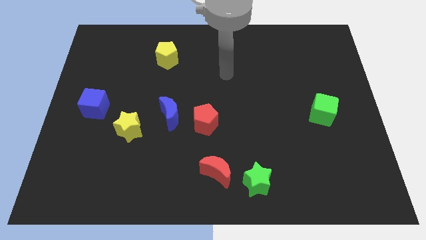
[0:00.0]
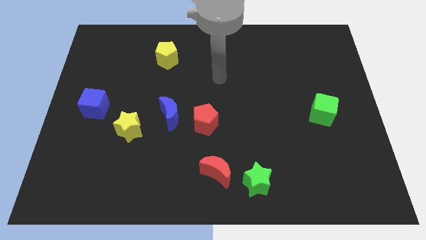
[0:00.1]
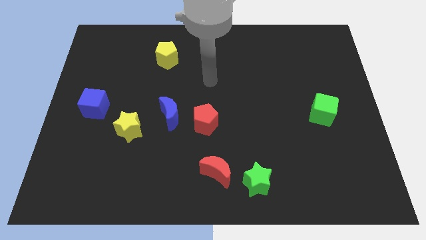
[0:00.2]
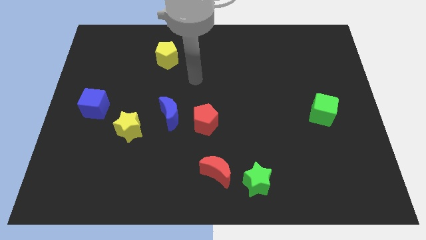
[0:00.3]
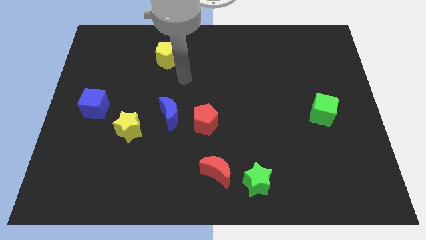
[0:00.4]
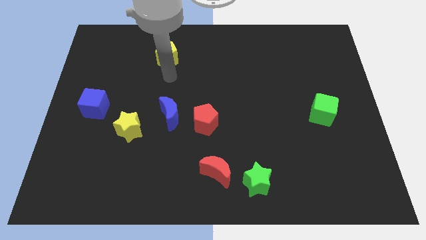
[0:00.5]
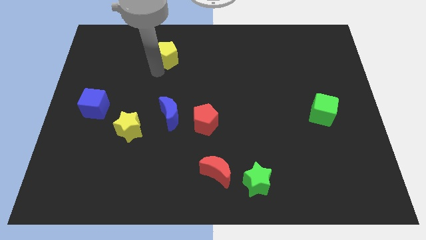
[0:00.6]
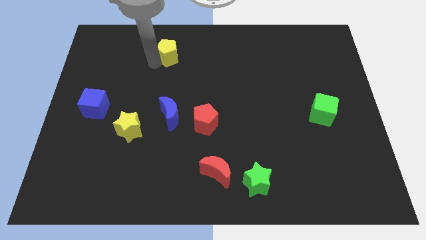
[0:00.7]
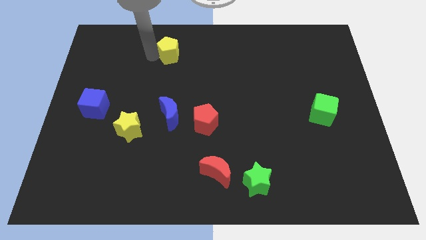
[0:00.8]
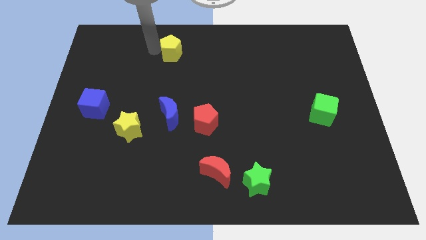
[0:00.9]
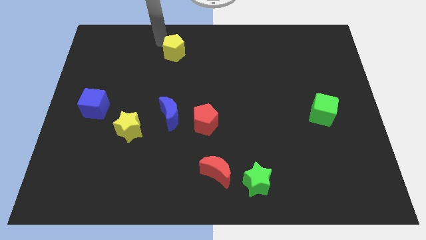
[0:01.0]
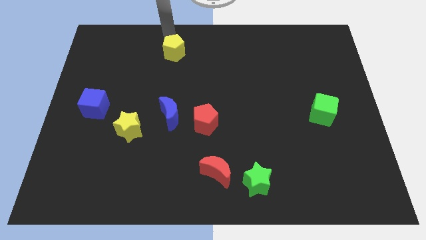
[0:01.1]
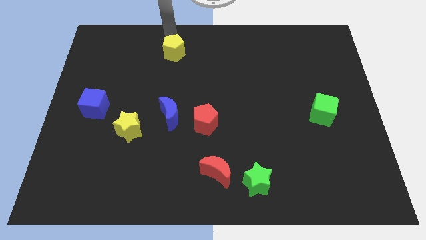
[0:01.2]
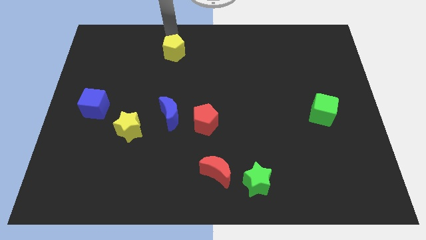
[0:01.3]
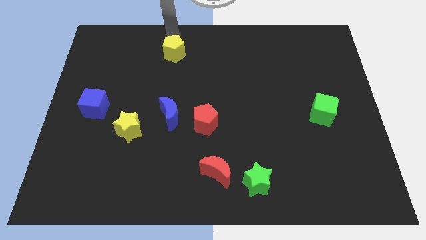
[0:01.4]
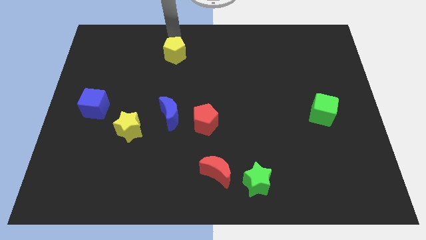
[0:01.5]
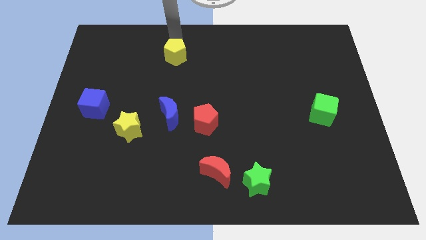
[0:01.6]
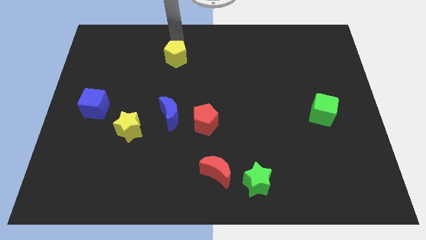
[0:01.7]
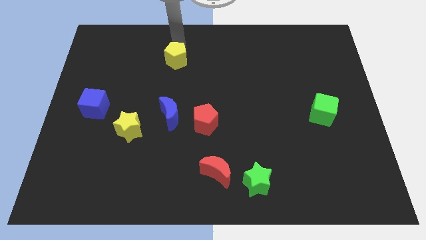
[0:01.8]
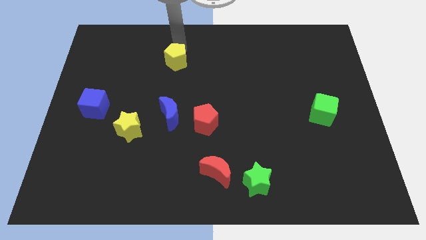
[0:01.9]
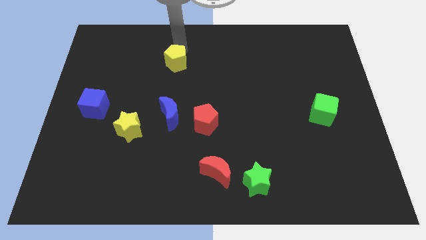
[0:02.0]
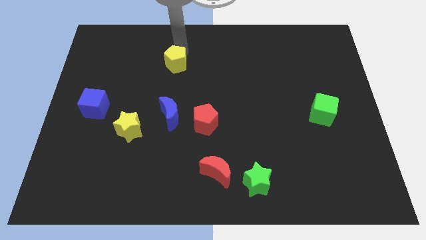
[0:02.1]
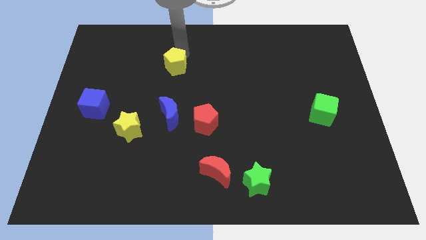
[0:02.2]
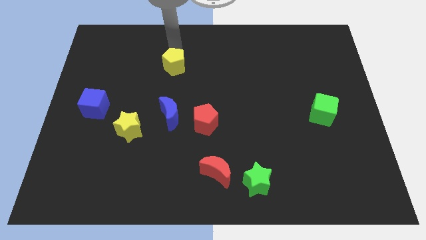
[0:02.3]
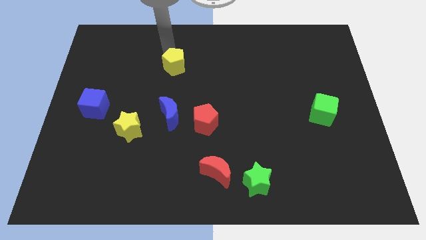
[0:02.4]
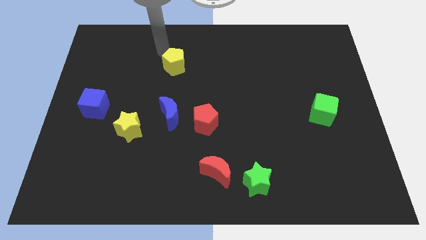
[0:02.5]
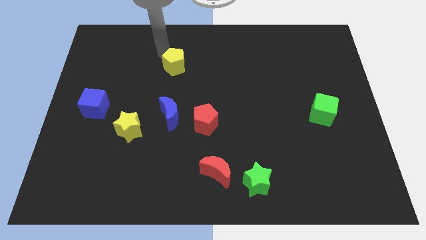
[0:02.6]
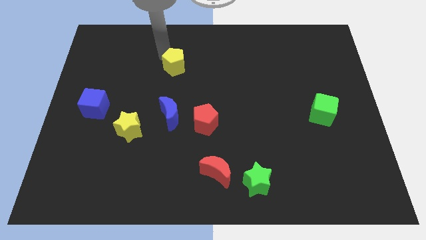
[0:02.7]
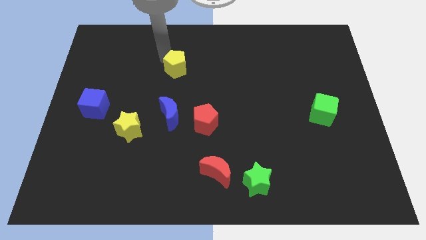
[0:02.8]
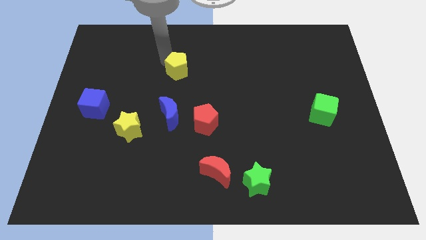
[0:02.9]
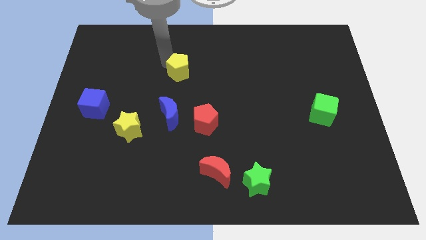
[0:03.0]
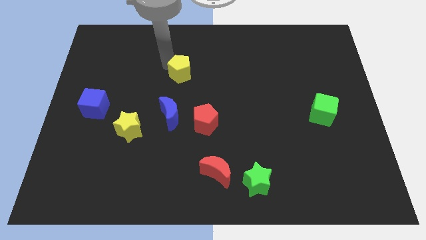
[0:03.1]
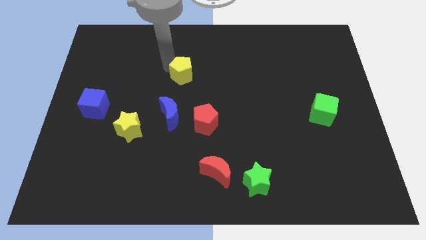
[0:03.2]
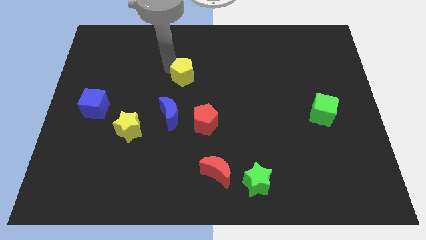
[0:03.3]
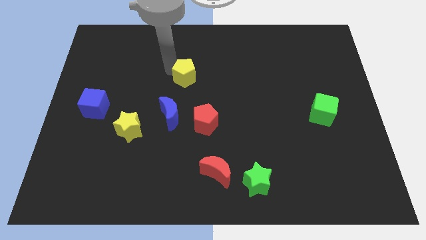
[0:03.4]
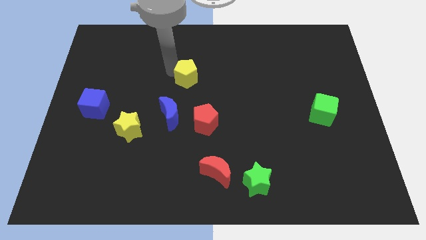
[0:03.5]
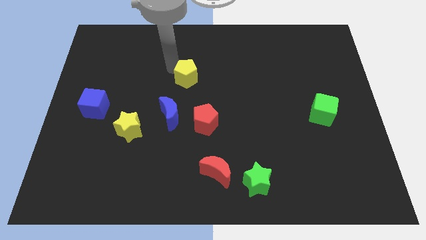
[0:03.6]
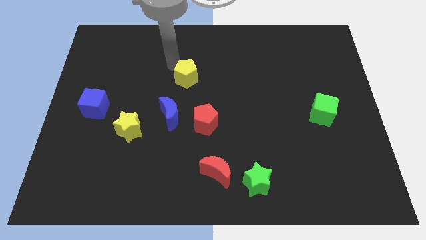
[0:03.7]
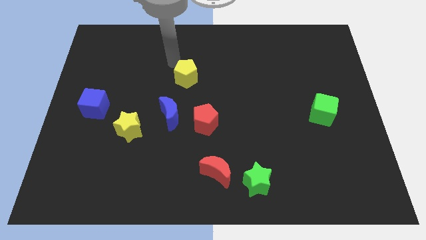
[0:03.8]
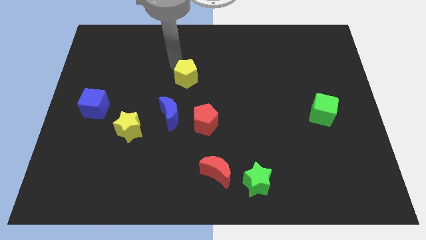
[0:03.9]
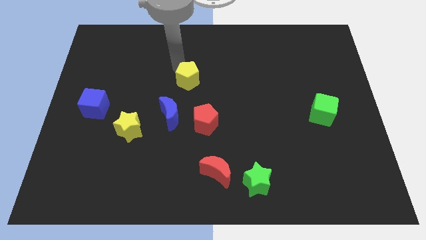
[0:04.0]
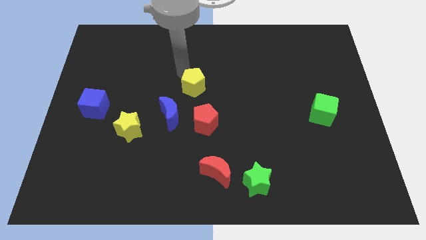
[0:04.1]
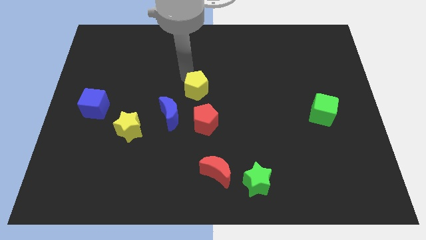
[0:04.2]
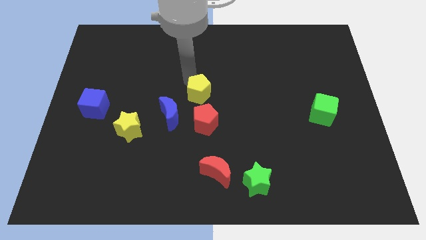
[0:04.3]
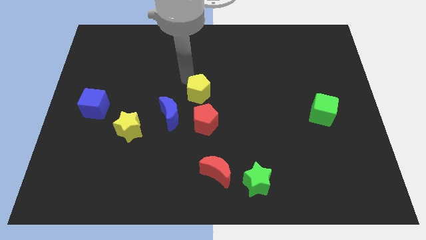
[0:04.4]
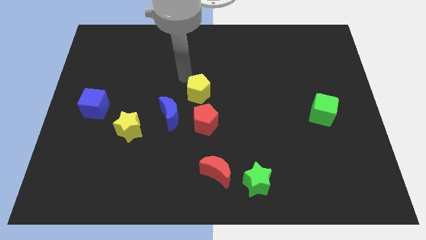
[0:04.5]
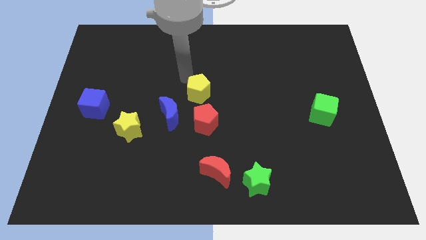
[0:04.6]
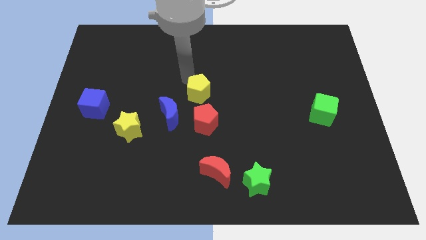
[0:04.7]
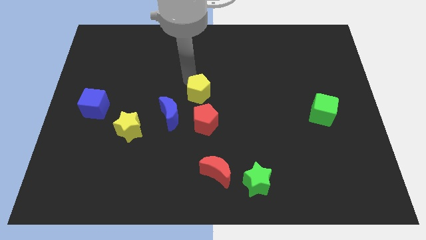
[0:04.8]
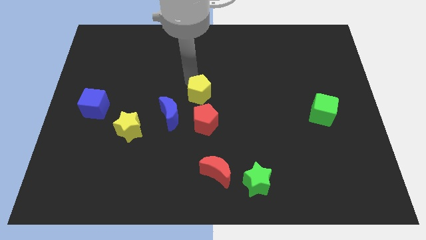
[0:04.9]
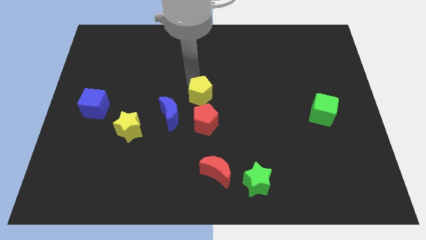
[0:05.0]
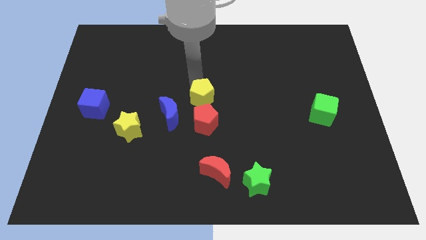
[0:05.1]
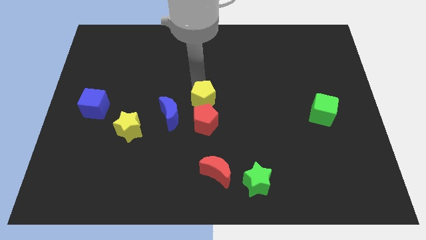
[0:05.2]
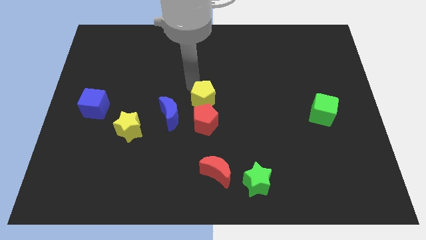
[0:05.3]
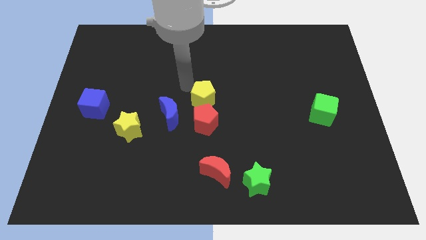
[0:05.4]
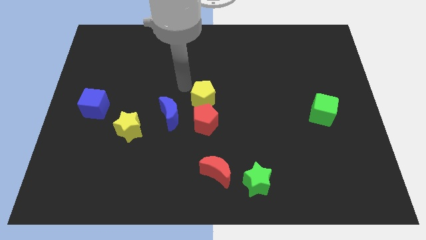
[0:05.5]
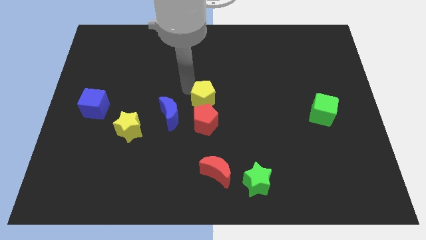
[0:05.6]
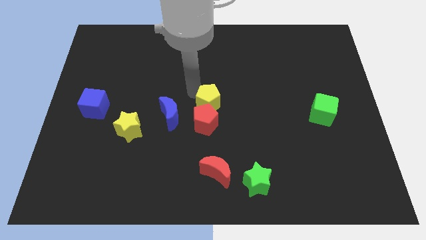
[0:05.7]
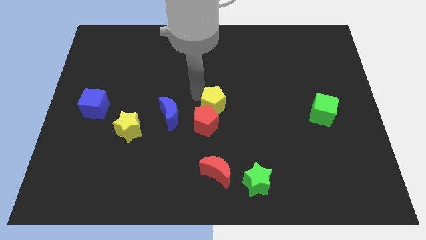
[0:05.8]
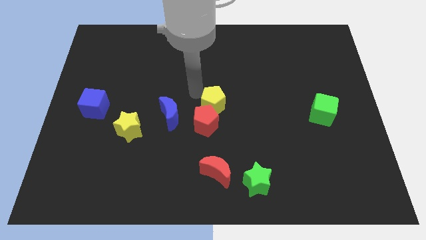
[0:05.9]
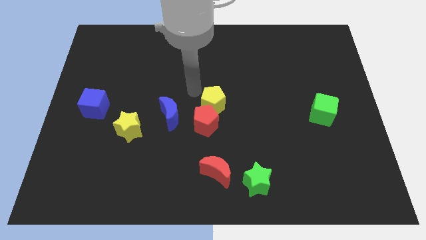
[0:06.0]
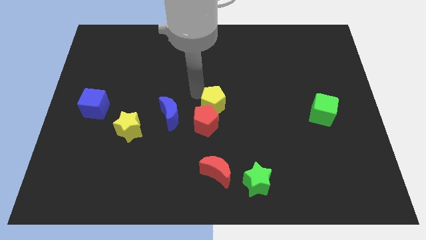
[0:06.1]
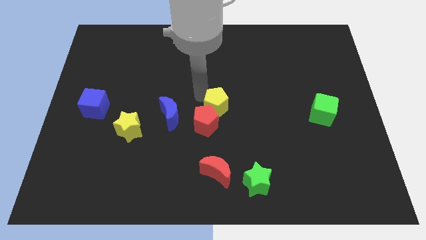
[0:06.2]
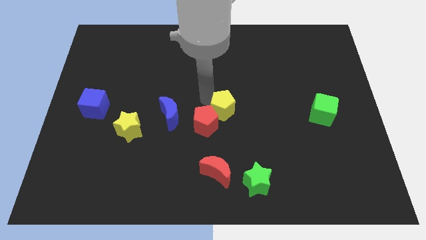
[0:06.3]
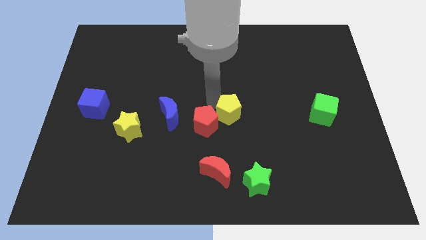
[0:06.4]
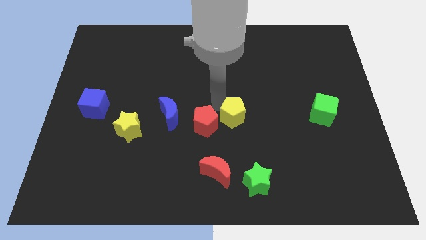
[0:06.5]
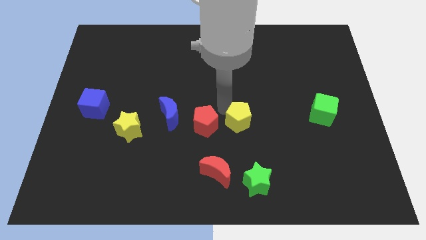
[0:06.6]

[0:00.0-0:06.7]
slide the yellow pentagon above the green star

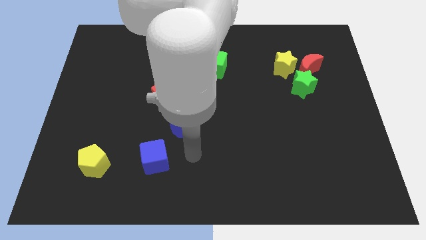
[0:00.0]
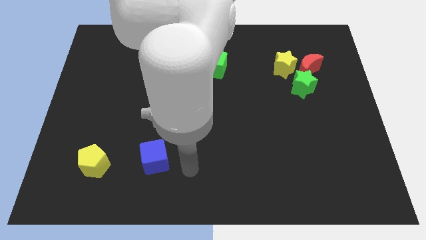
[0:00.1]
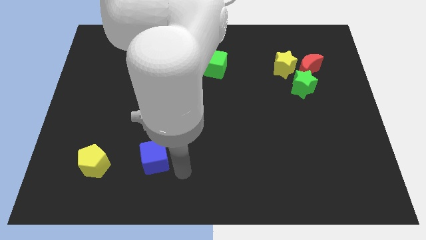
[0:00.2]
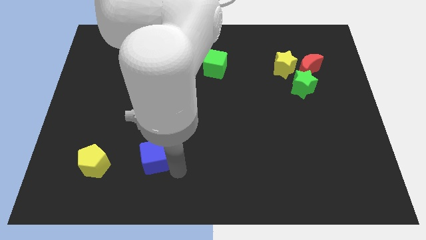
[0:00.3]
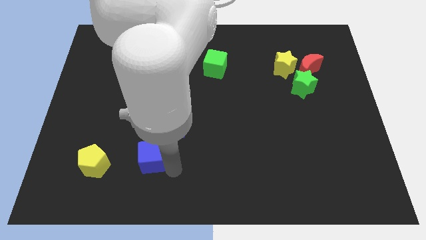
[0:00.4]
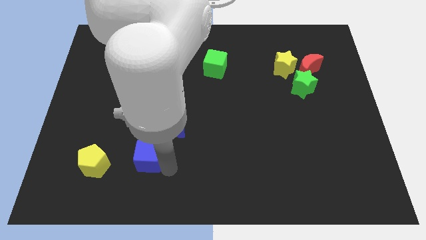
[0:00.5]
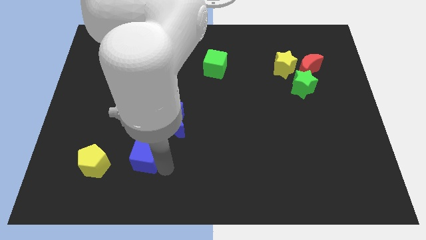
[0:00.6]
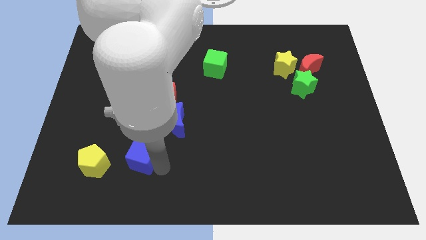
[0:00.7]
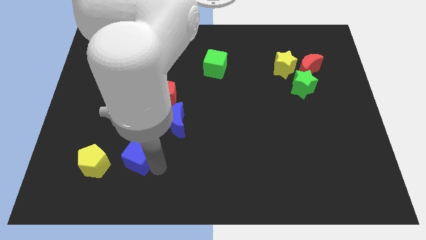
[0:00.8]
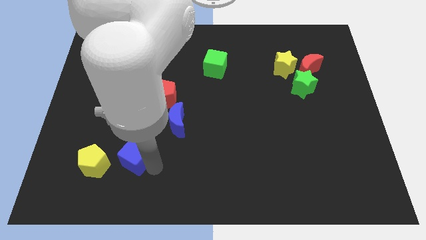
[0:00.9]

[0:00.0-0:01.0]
slide the blue cube diagonally up and to the right of the yellow pentagon

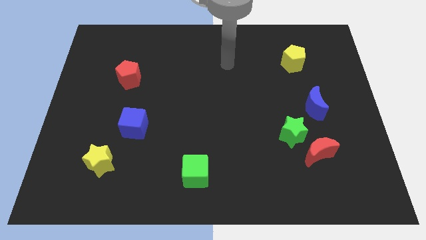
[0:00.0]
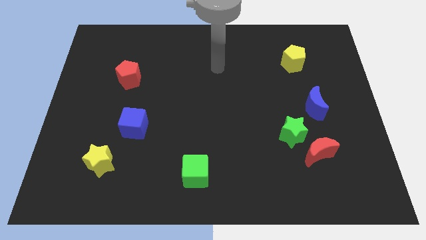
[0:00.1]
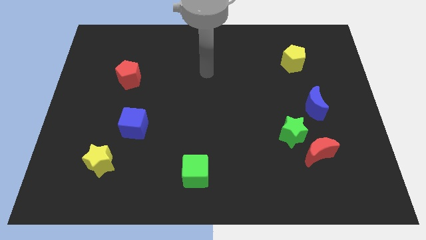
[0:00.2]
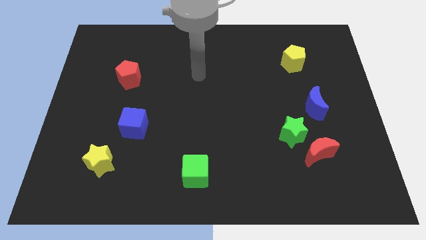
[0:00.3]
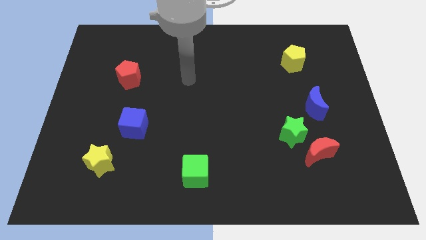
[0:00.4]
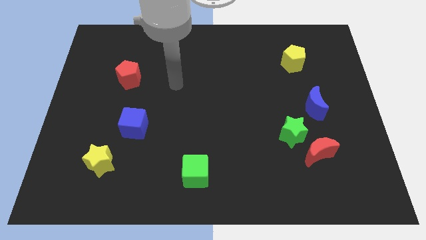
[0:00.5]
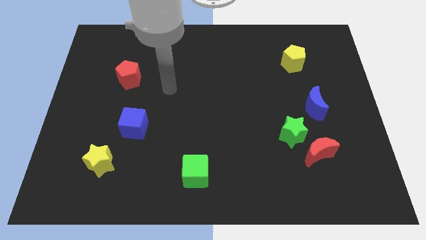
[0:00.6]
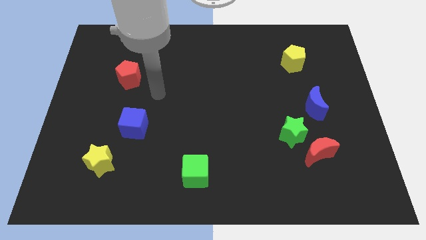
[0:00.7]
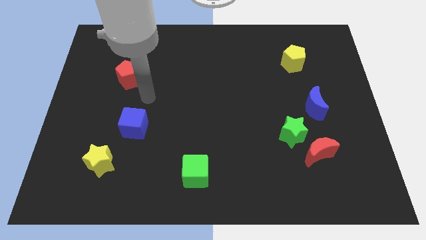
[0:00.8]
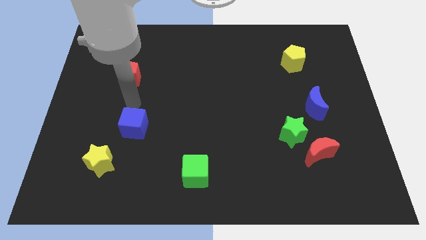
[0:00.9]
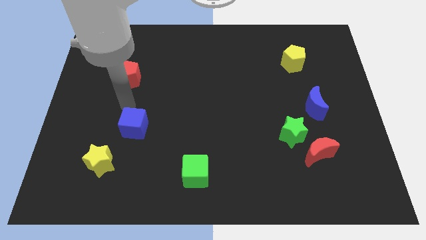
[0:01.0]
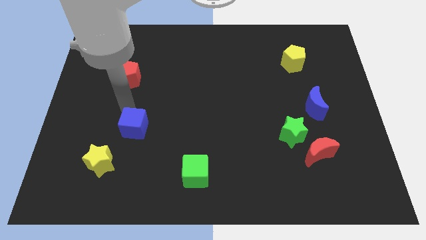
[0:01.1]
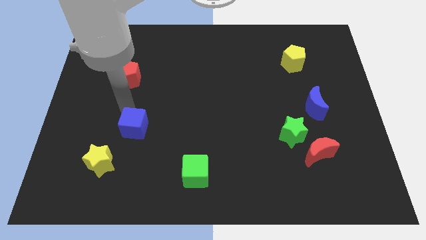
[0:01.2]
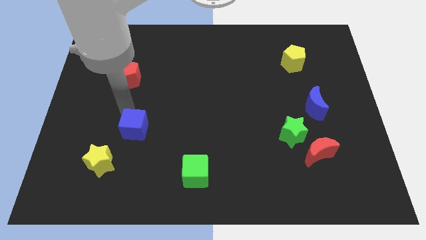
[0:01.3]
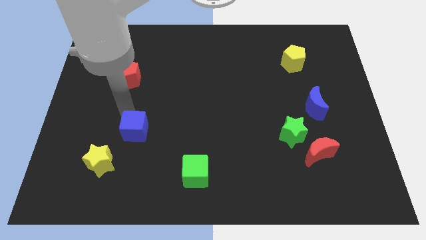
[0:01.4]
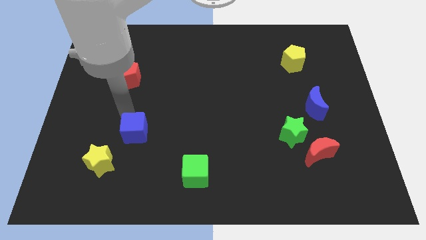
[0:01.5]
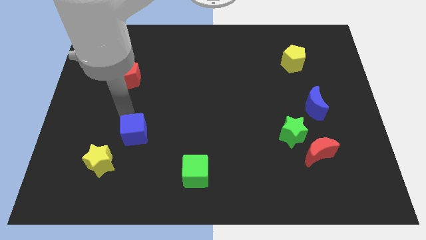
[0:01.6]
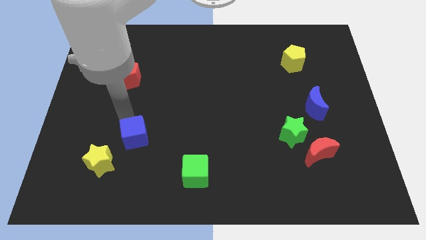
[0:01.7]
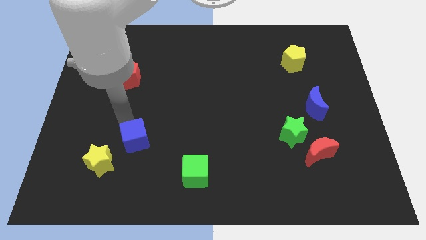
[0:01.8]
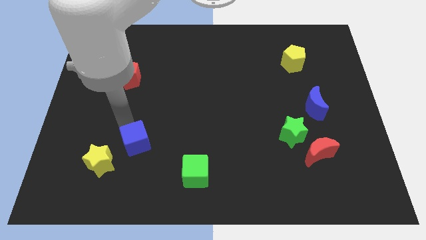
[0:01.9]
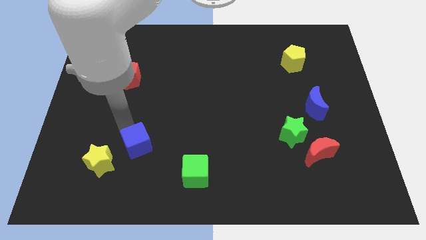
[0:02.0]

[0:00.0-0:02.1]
move the blue cube just right of the yellow star
